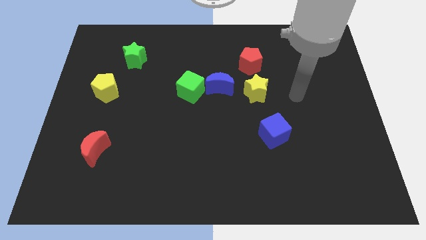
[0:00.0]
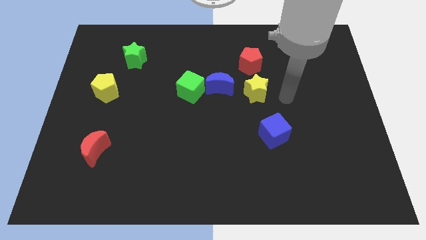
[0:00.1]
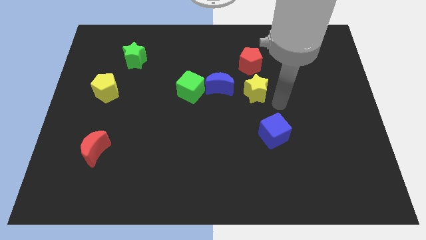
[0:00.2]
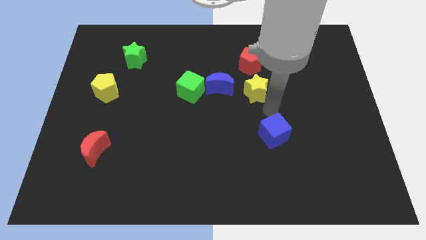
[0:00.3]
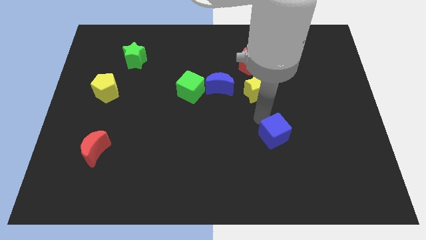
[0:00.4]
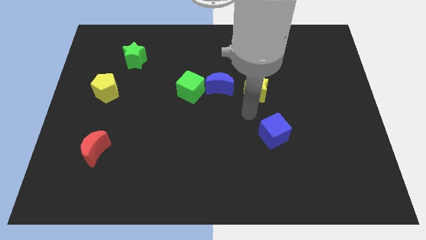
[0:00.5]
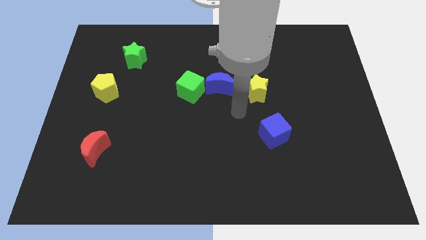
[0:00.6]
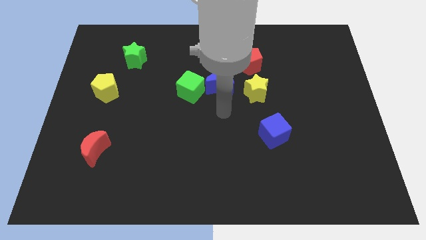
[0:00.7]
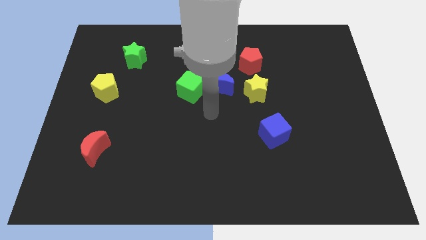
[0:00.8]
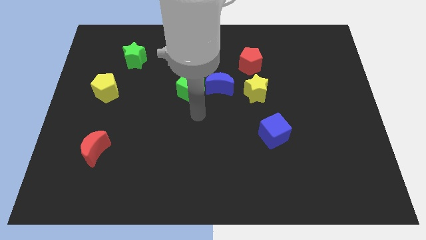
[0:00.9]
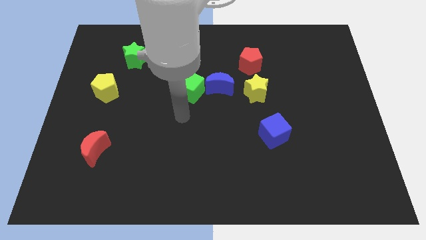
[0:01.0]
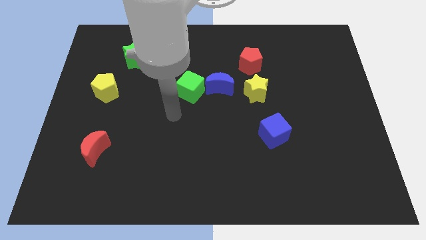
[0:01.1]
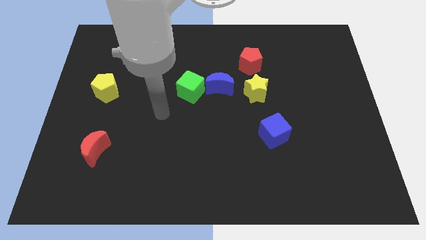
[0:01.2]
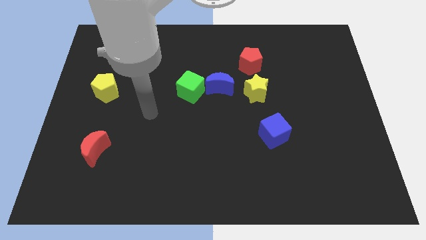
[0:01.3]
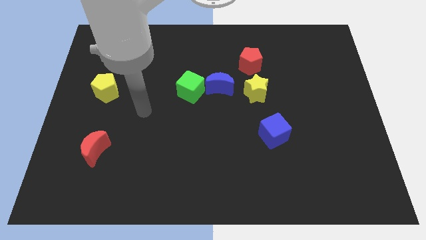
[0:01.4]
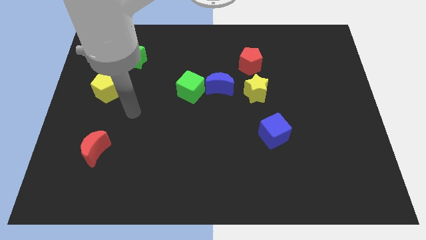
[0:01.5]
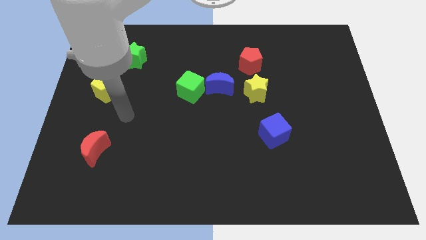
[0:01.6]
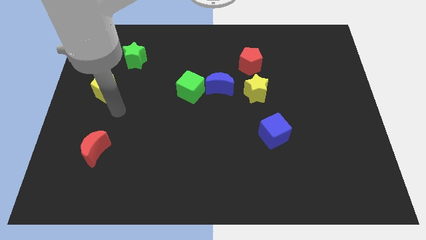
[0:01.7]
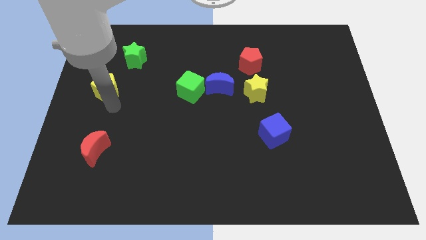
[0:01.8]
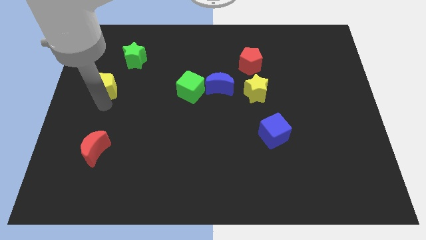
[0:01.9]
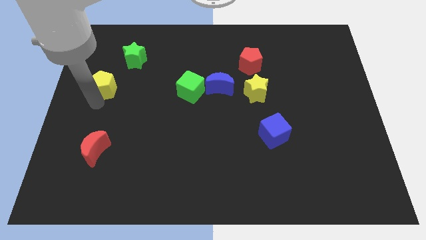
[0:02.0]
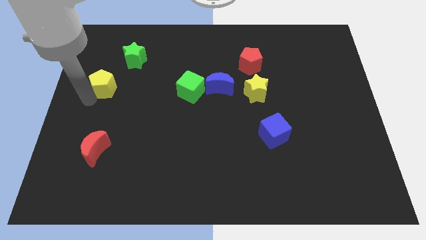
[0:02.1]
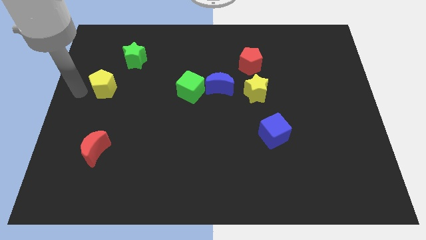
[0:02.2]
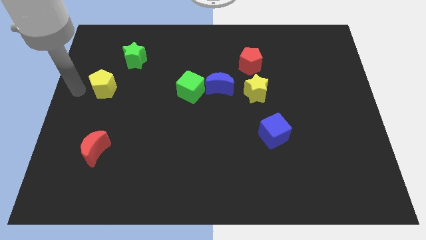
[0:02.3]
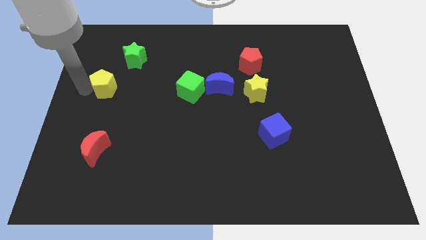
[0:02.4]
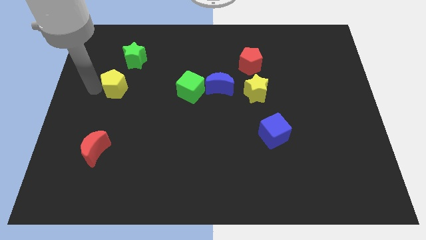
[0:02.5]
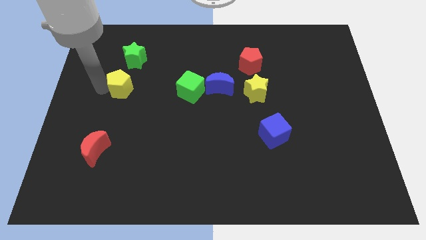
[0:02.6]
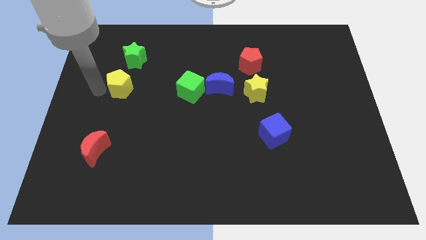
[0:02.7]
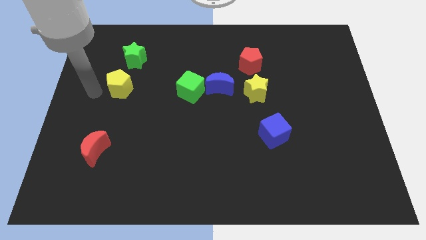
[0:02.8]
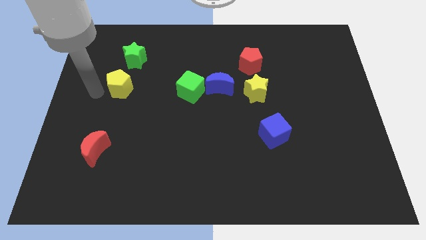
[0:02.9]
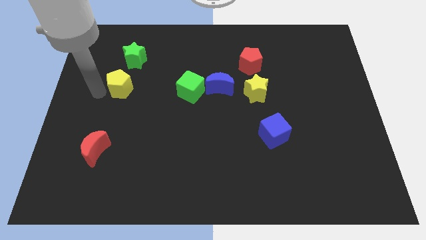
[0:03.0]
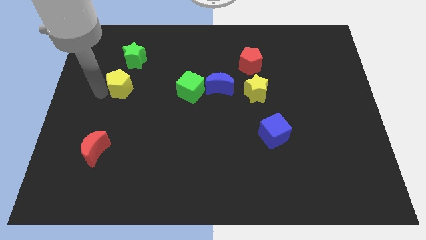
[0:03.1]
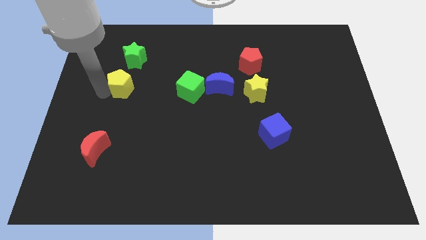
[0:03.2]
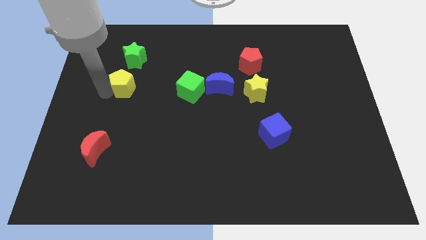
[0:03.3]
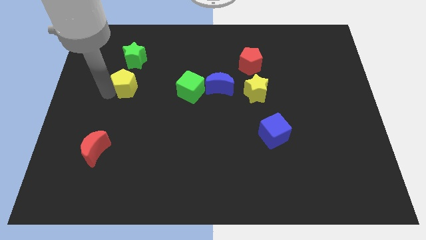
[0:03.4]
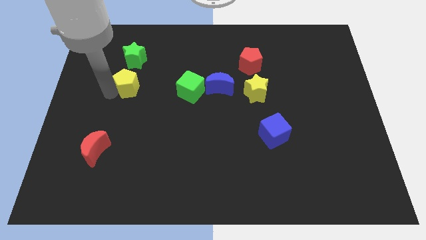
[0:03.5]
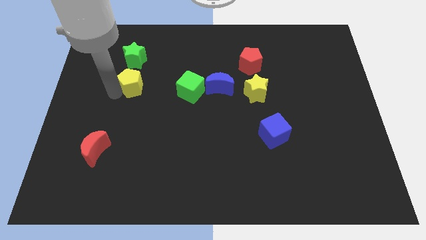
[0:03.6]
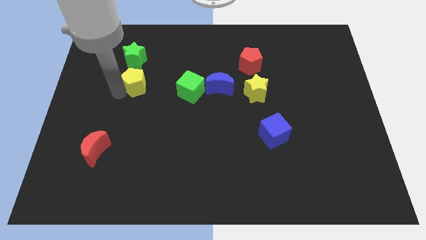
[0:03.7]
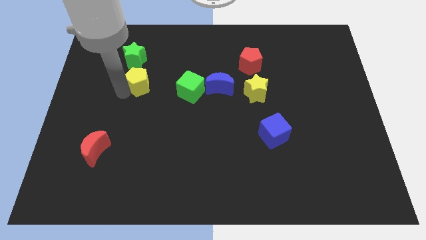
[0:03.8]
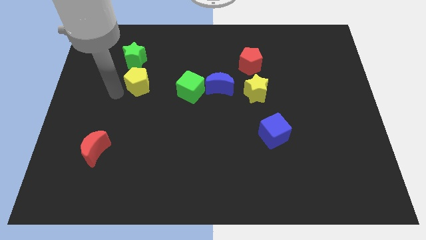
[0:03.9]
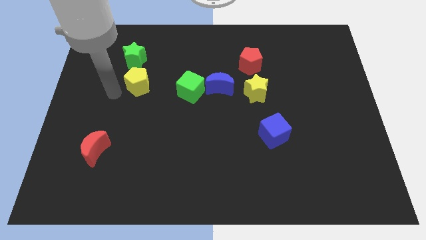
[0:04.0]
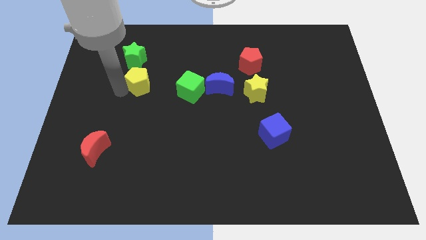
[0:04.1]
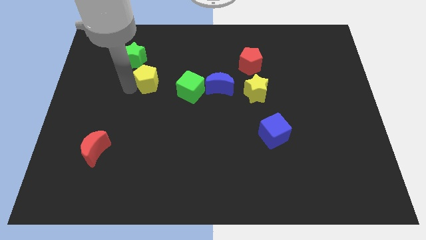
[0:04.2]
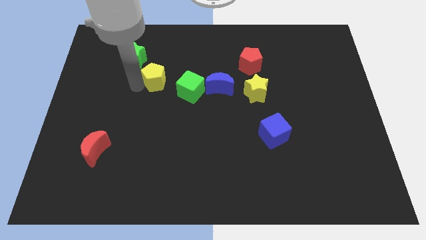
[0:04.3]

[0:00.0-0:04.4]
move the yellow pentagon to the top left side of the green cube

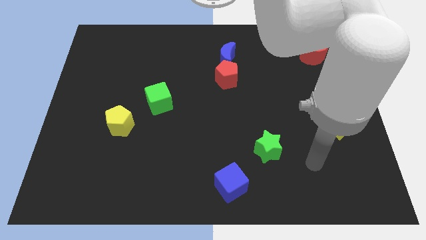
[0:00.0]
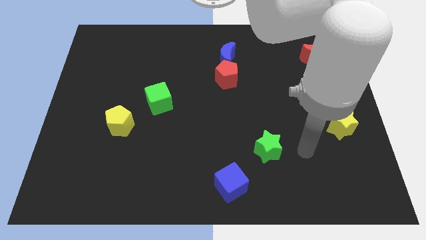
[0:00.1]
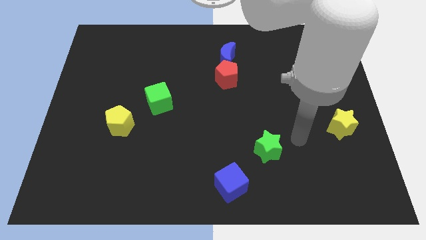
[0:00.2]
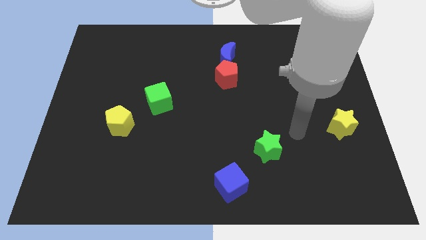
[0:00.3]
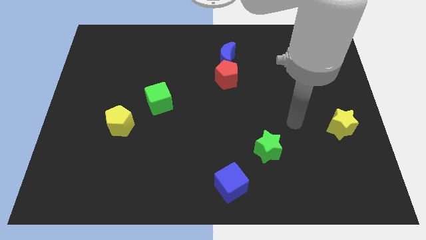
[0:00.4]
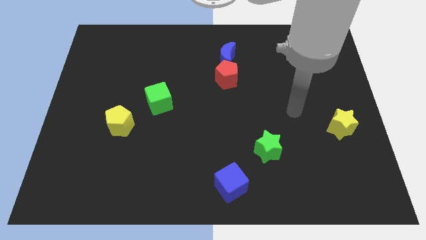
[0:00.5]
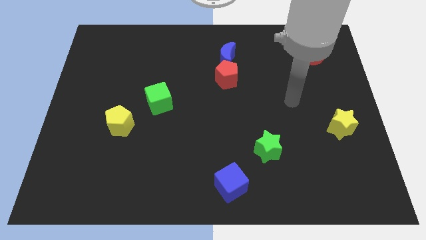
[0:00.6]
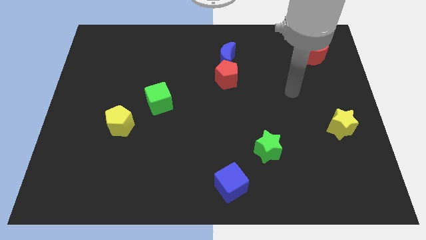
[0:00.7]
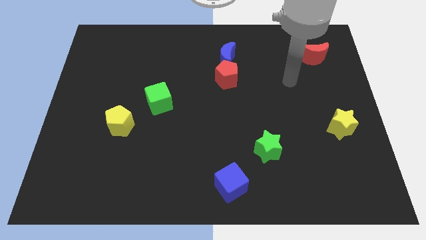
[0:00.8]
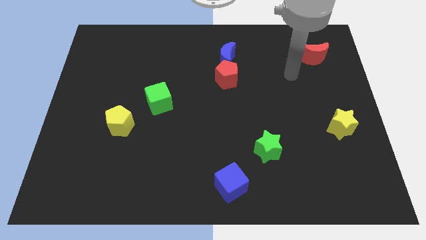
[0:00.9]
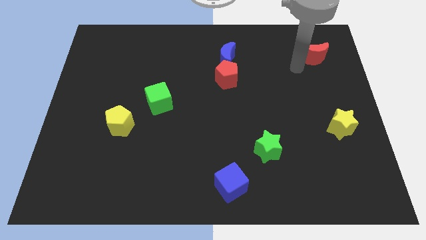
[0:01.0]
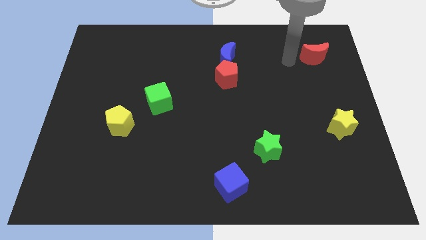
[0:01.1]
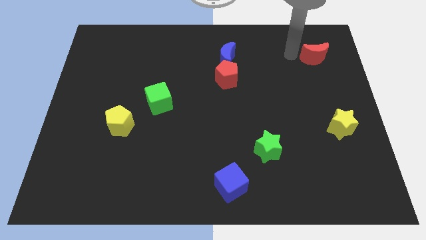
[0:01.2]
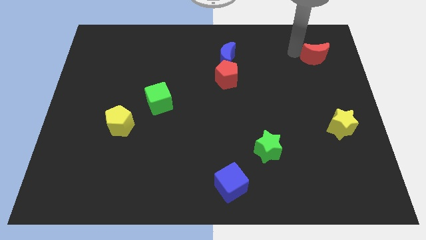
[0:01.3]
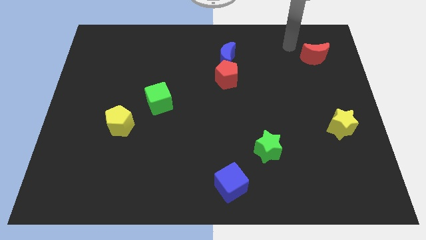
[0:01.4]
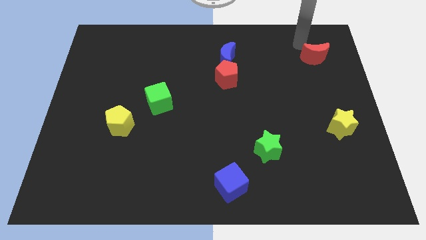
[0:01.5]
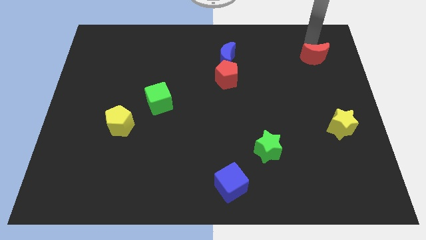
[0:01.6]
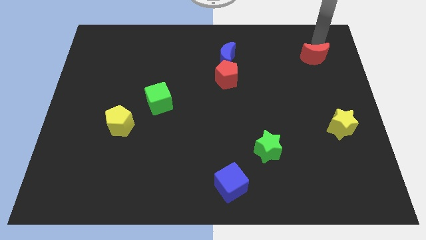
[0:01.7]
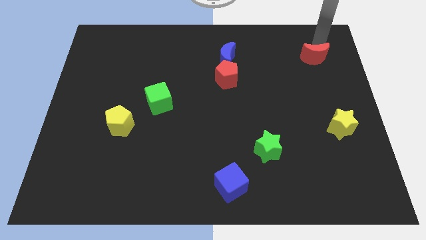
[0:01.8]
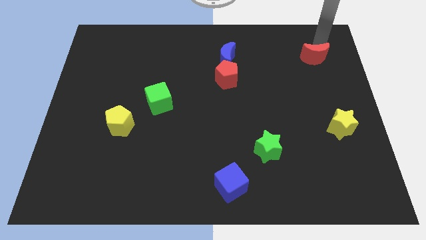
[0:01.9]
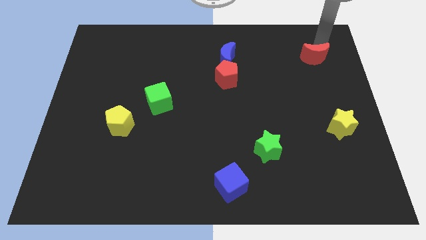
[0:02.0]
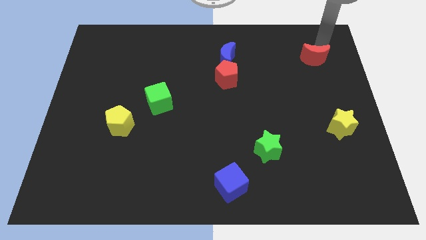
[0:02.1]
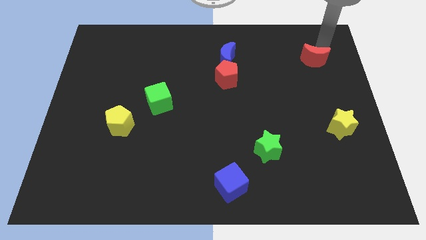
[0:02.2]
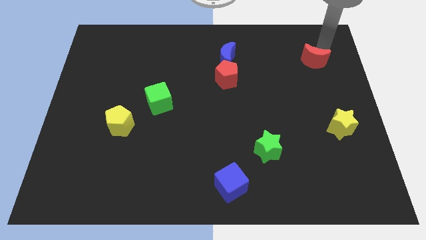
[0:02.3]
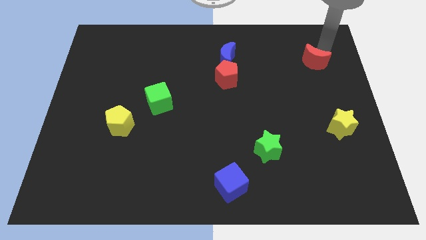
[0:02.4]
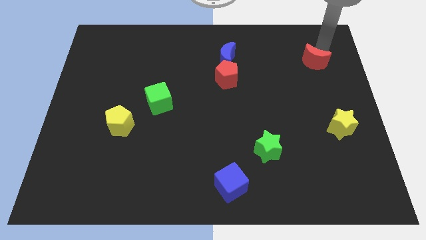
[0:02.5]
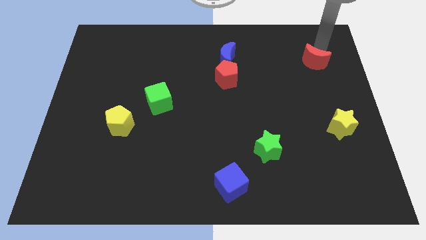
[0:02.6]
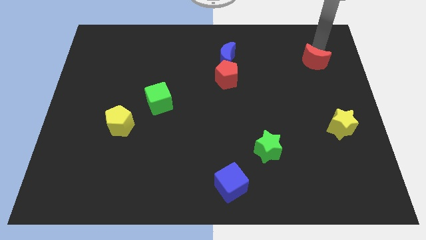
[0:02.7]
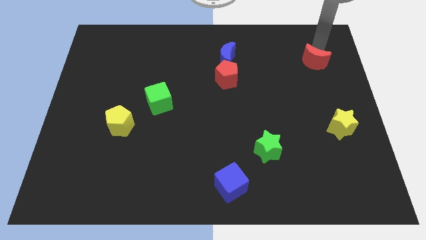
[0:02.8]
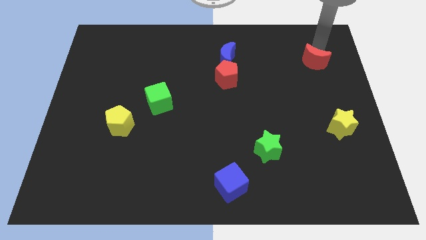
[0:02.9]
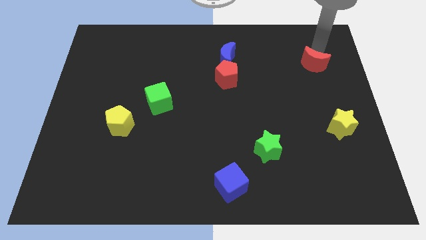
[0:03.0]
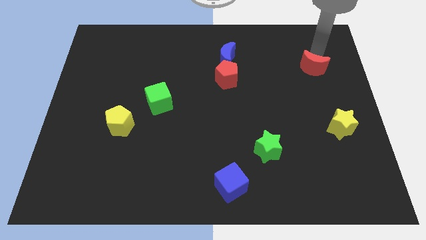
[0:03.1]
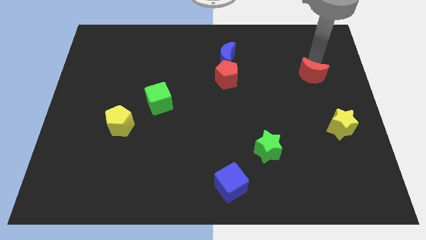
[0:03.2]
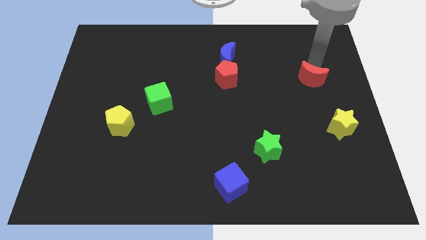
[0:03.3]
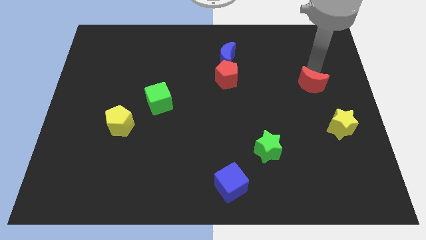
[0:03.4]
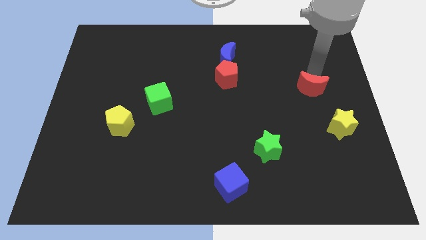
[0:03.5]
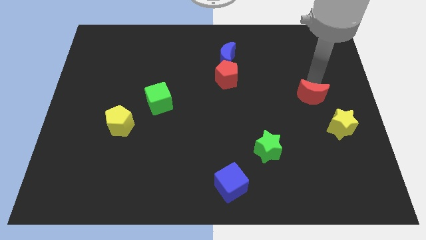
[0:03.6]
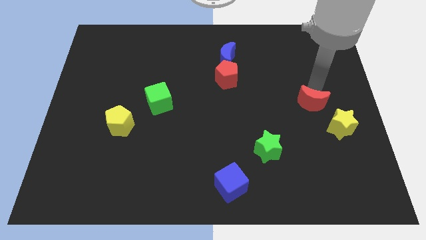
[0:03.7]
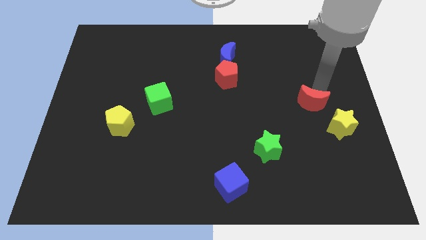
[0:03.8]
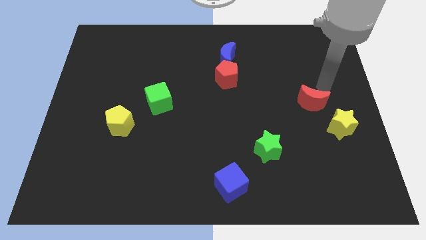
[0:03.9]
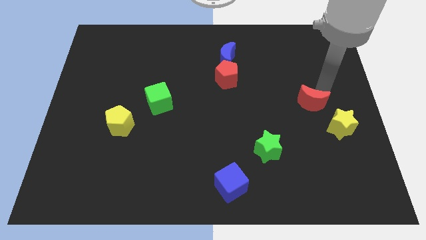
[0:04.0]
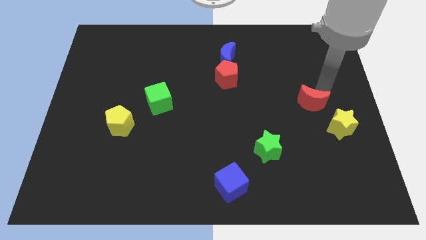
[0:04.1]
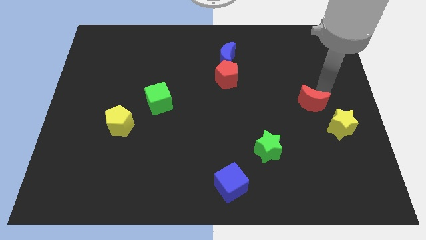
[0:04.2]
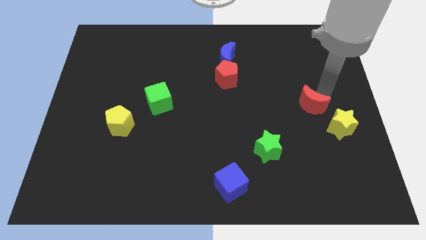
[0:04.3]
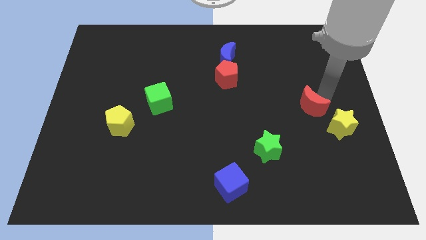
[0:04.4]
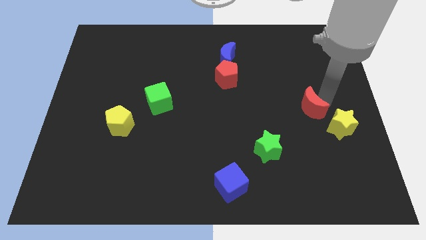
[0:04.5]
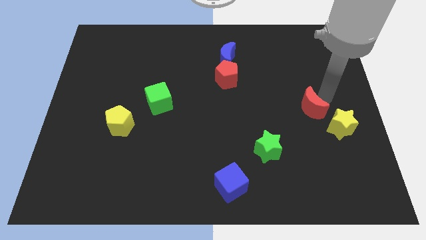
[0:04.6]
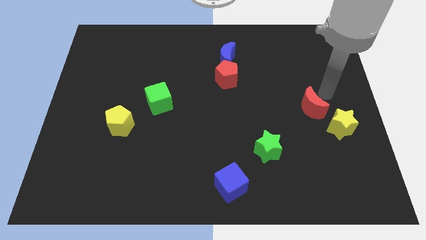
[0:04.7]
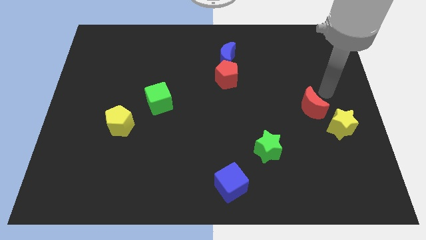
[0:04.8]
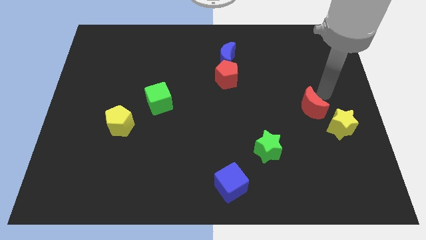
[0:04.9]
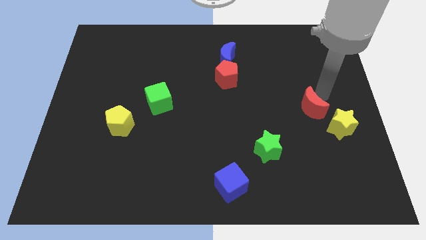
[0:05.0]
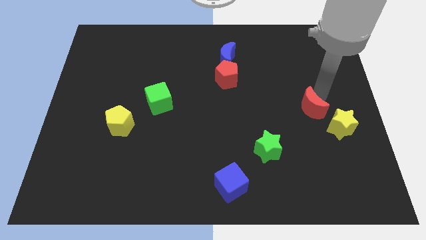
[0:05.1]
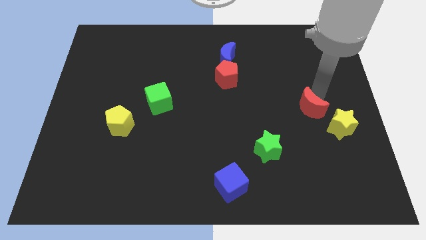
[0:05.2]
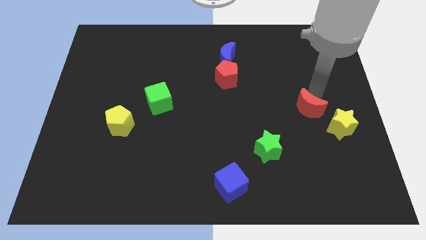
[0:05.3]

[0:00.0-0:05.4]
push the red moon just left of the yellow star
